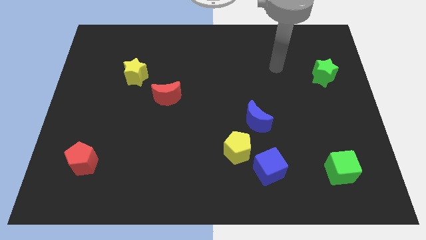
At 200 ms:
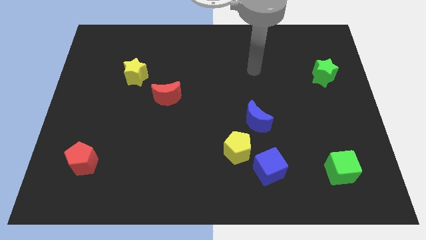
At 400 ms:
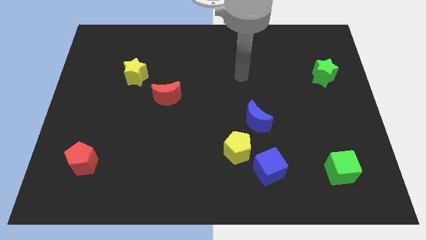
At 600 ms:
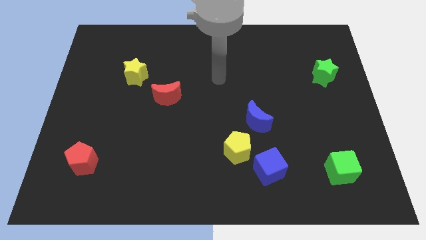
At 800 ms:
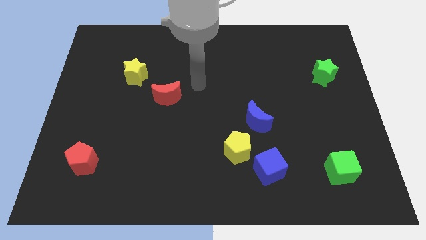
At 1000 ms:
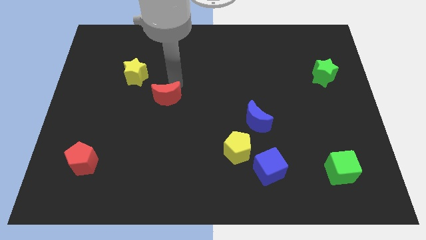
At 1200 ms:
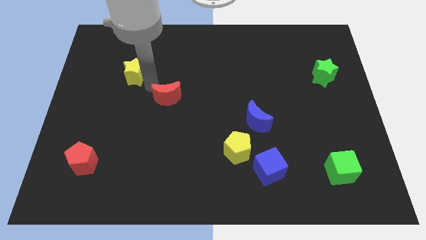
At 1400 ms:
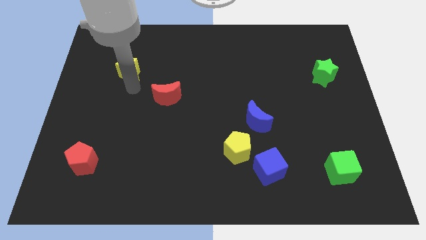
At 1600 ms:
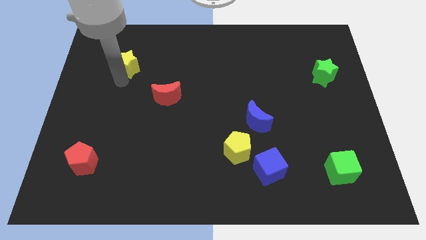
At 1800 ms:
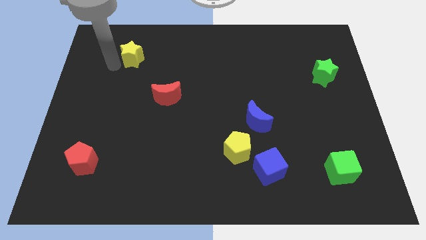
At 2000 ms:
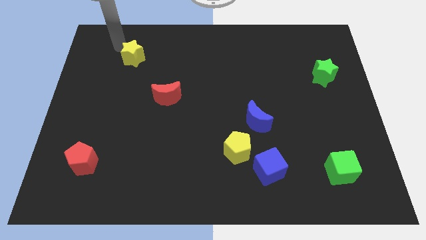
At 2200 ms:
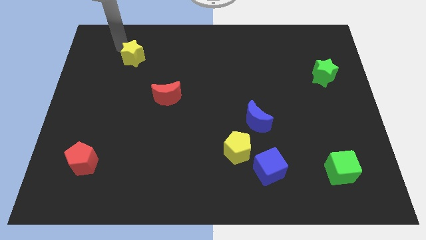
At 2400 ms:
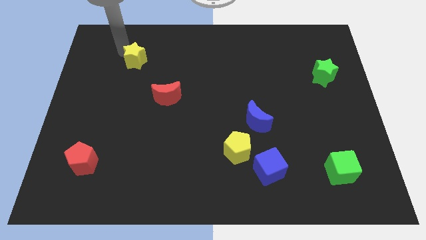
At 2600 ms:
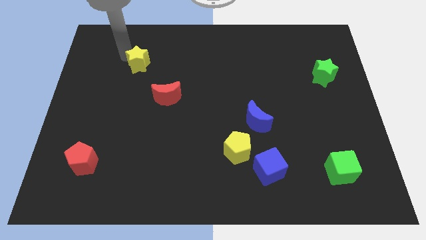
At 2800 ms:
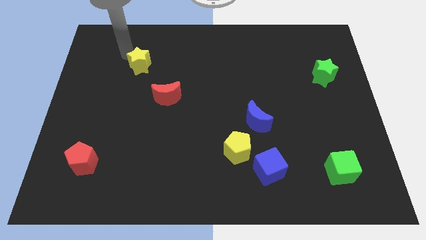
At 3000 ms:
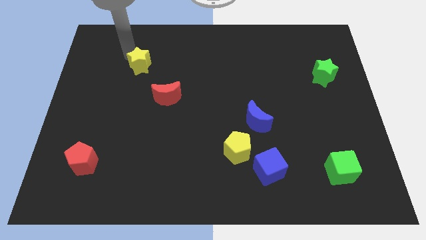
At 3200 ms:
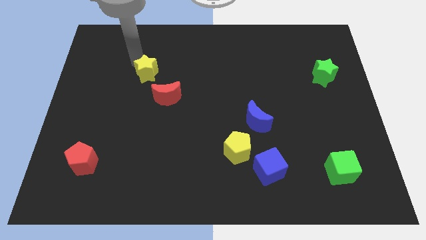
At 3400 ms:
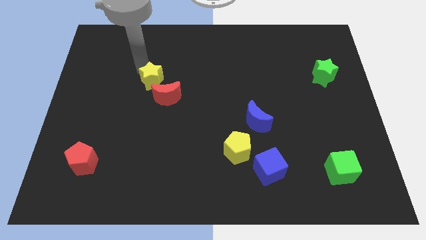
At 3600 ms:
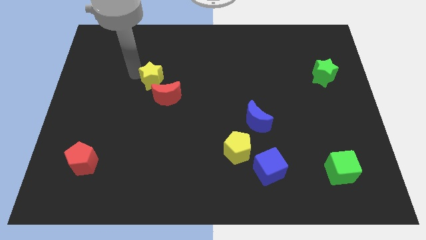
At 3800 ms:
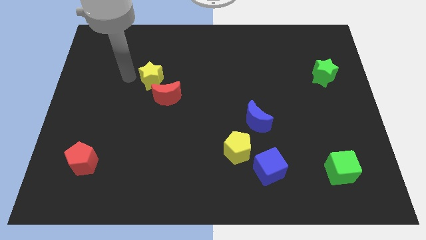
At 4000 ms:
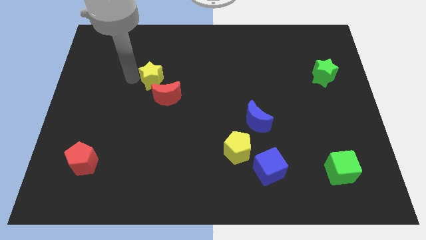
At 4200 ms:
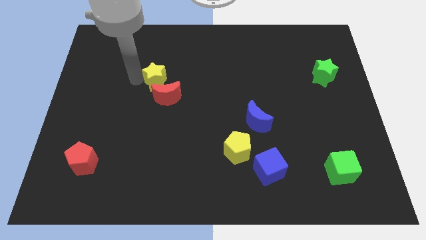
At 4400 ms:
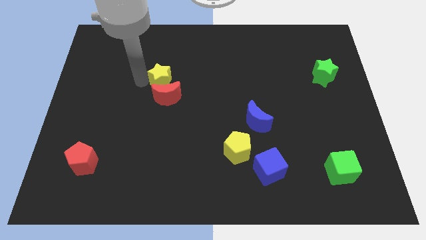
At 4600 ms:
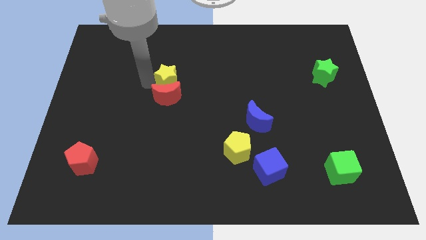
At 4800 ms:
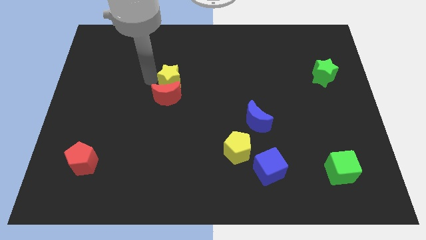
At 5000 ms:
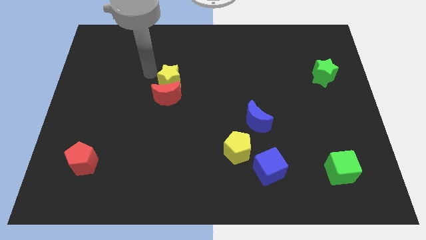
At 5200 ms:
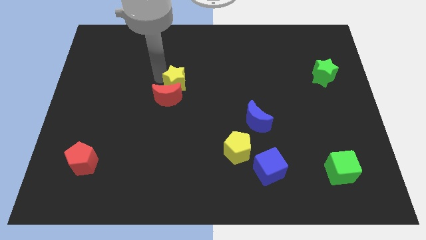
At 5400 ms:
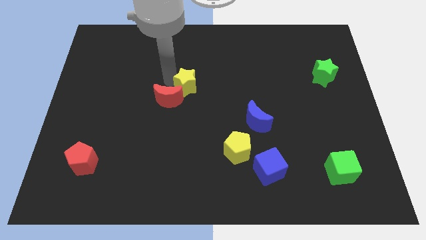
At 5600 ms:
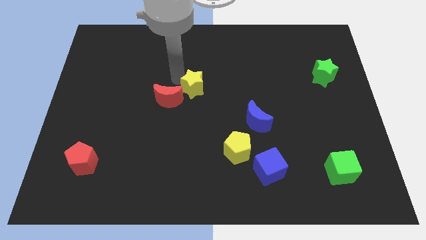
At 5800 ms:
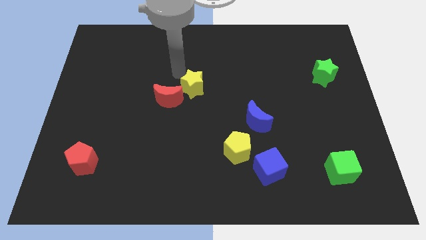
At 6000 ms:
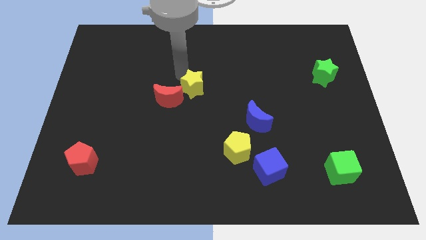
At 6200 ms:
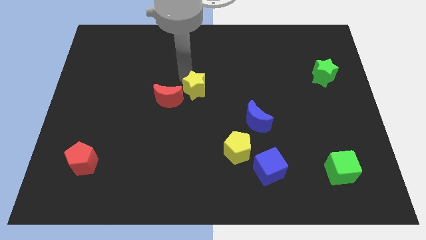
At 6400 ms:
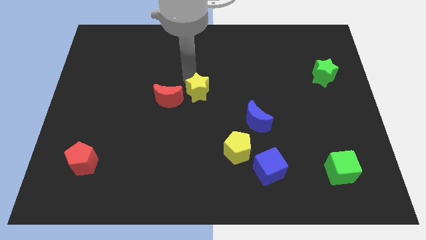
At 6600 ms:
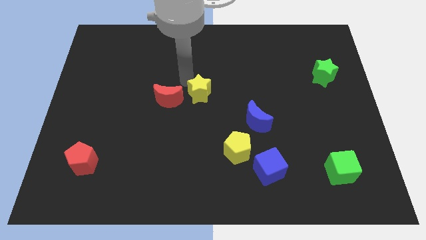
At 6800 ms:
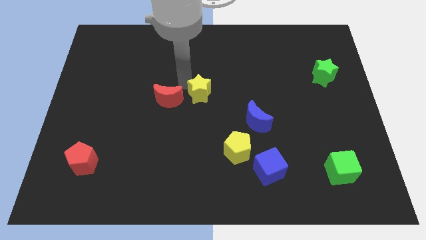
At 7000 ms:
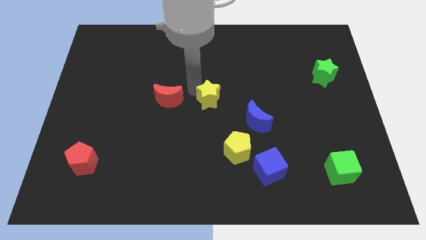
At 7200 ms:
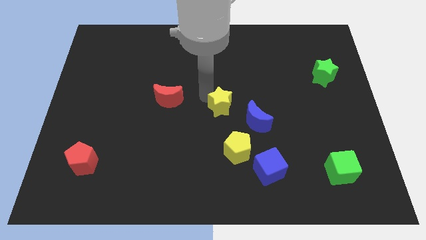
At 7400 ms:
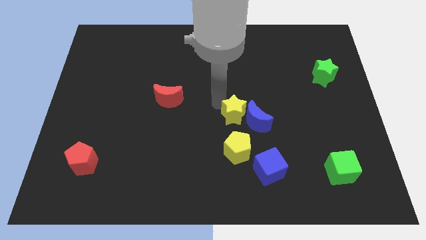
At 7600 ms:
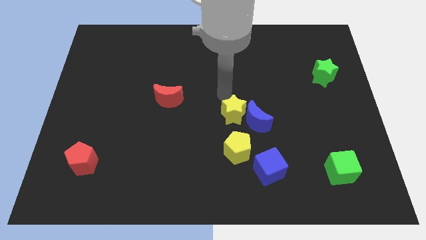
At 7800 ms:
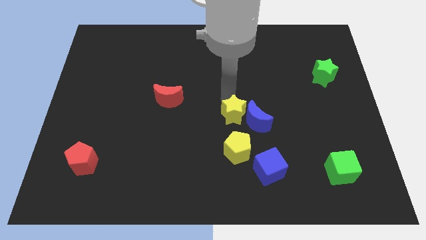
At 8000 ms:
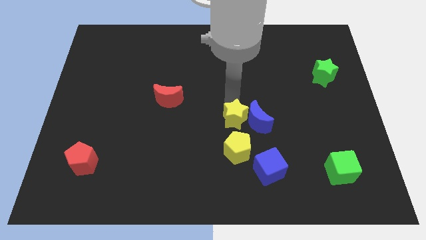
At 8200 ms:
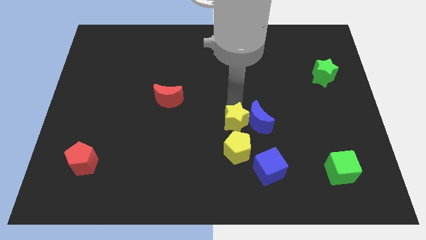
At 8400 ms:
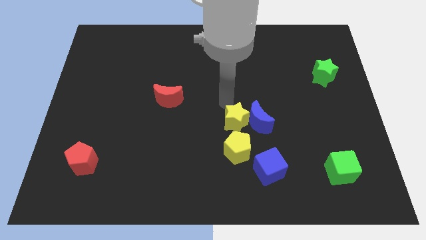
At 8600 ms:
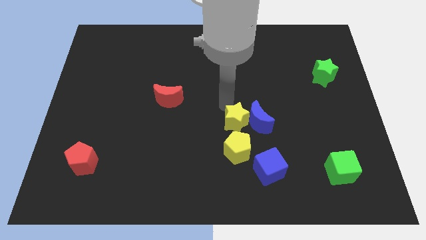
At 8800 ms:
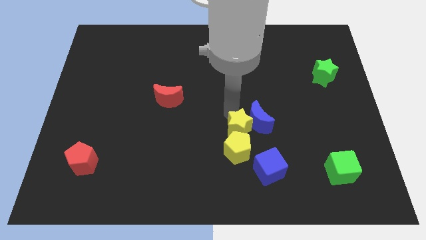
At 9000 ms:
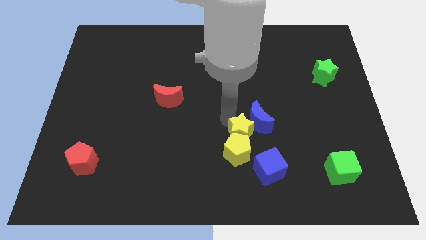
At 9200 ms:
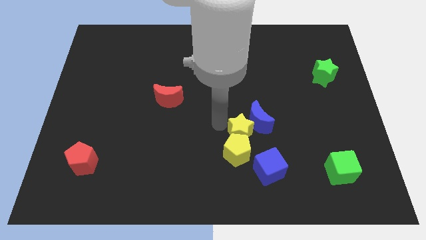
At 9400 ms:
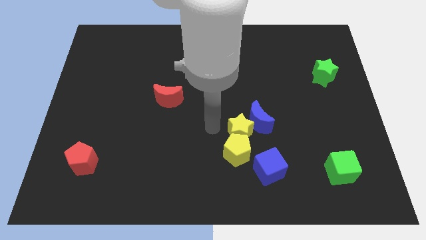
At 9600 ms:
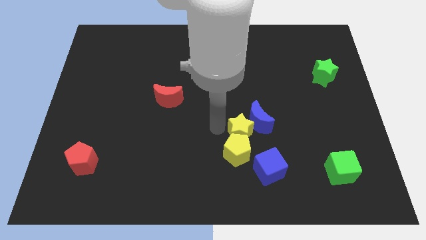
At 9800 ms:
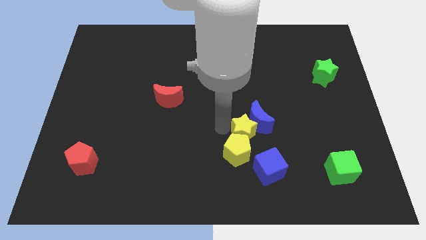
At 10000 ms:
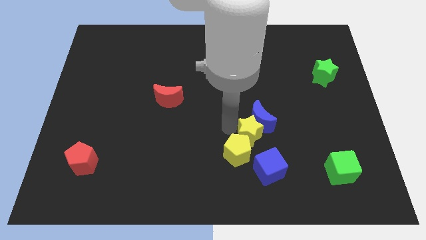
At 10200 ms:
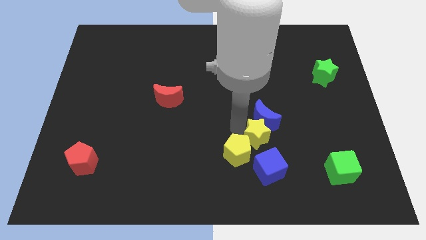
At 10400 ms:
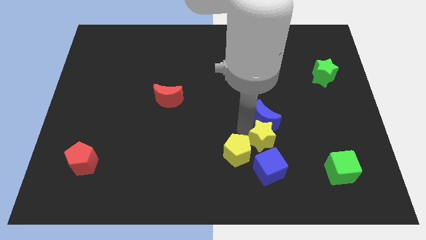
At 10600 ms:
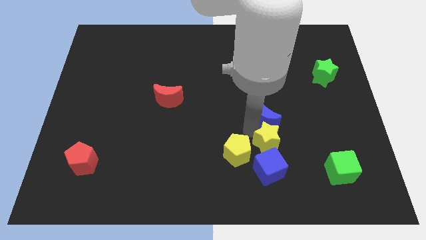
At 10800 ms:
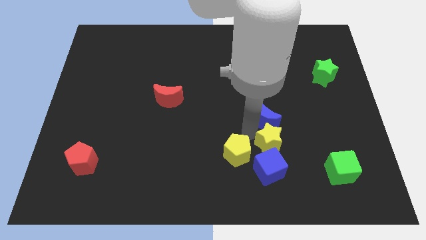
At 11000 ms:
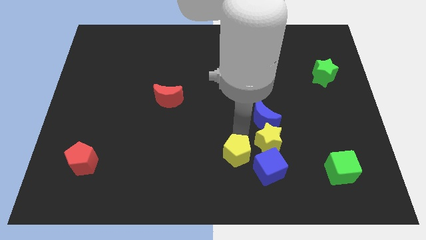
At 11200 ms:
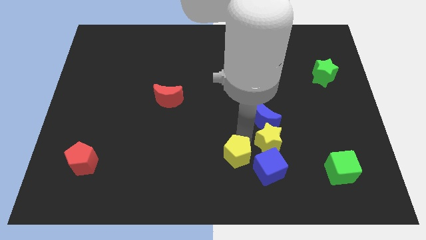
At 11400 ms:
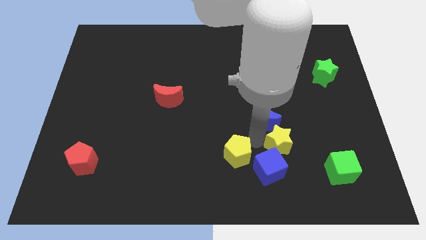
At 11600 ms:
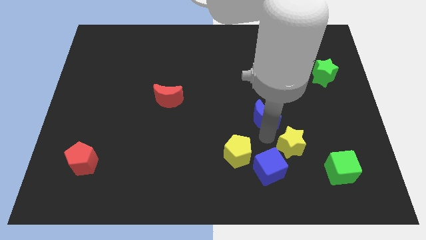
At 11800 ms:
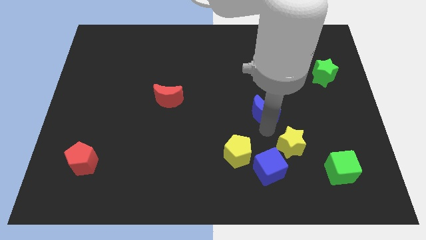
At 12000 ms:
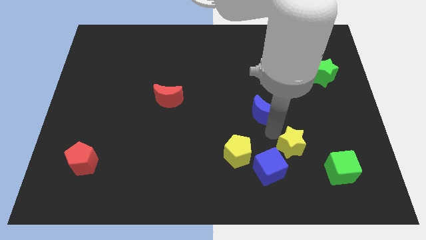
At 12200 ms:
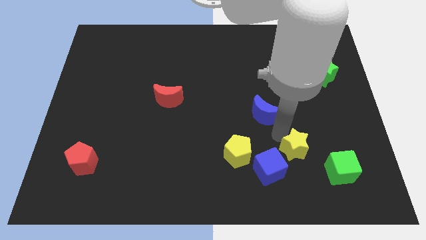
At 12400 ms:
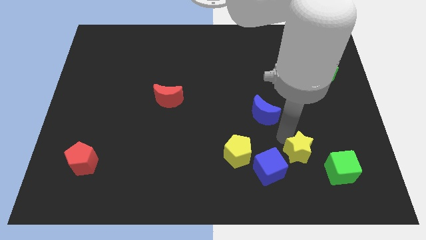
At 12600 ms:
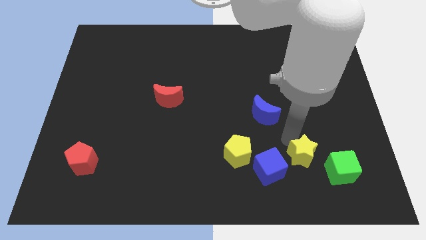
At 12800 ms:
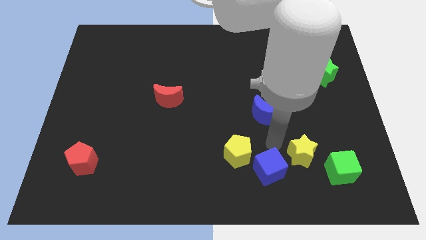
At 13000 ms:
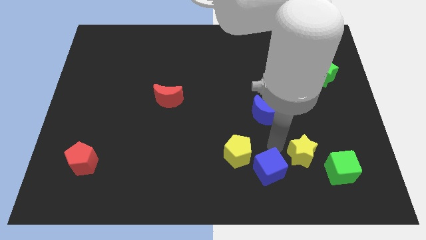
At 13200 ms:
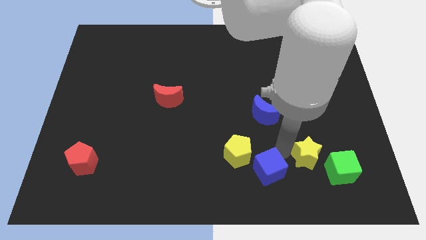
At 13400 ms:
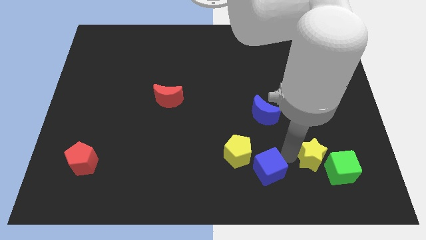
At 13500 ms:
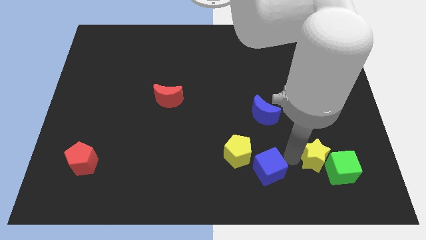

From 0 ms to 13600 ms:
push the yellow star to the green cube

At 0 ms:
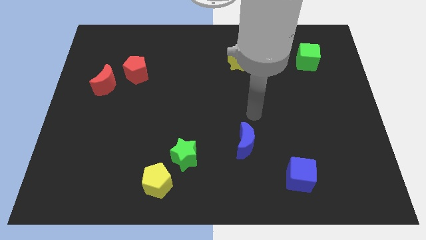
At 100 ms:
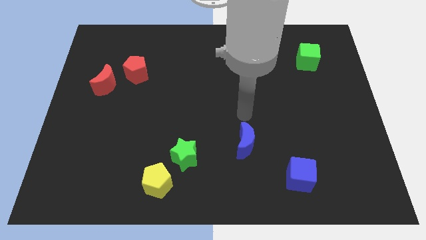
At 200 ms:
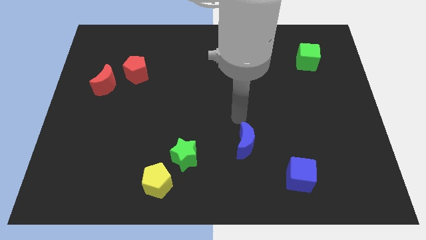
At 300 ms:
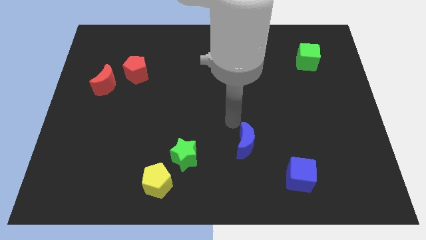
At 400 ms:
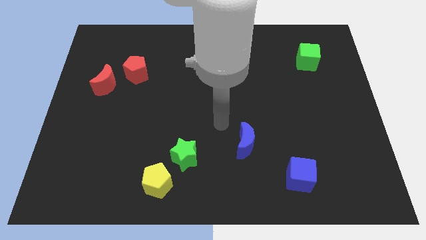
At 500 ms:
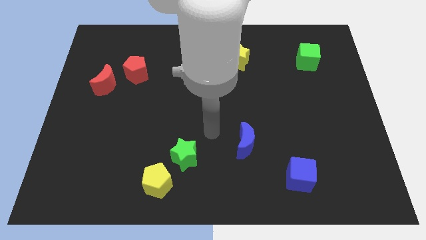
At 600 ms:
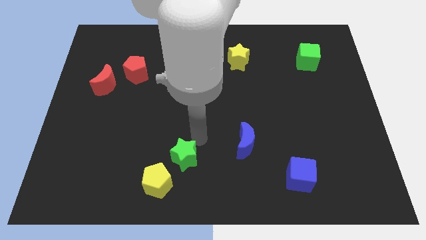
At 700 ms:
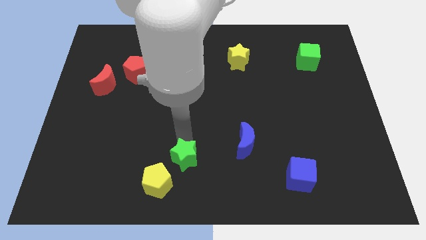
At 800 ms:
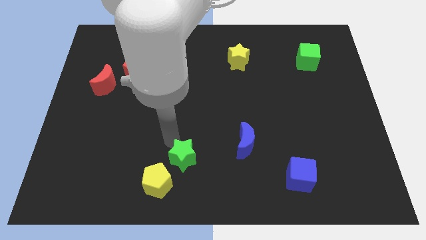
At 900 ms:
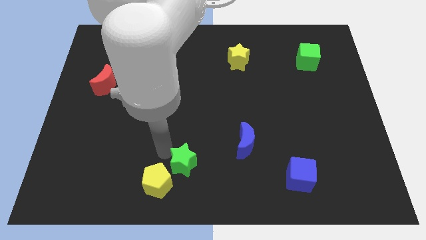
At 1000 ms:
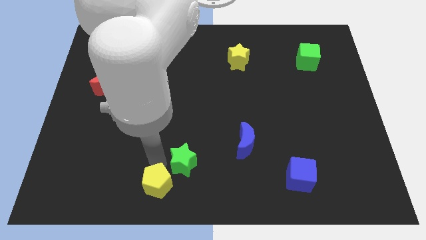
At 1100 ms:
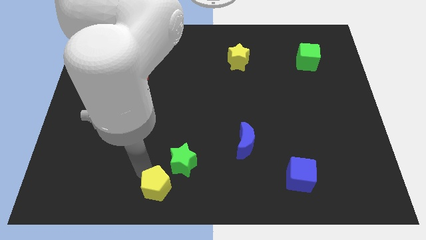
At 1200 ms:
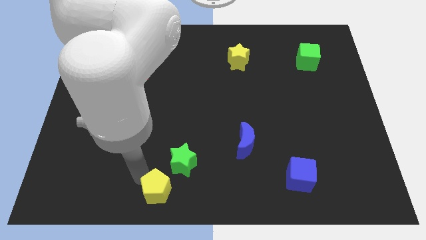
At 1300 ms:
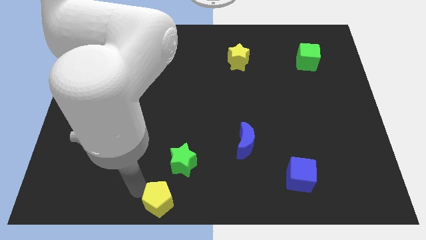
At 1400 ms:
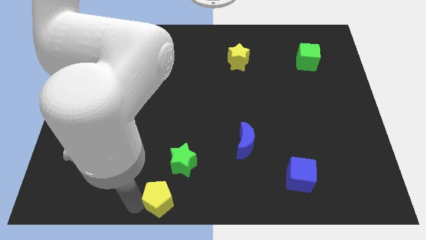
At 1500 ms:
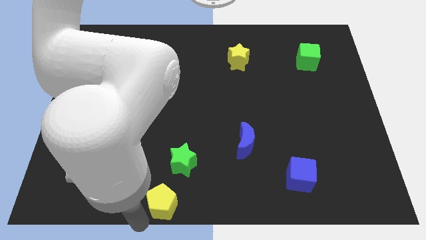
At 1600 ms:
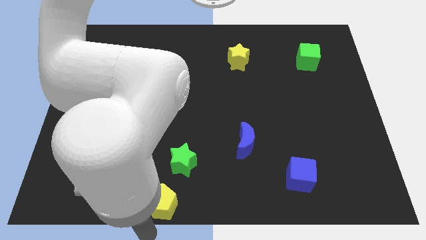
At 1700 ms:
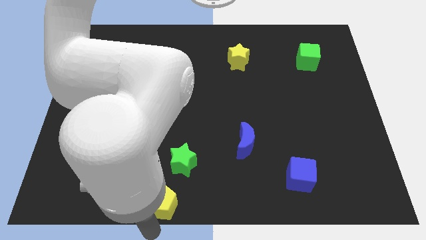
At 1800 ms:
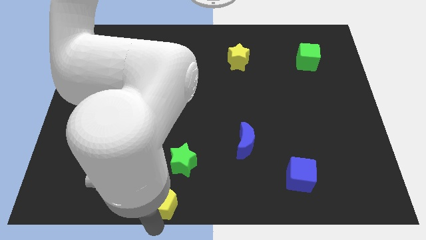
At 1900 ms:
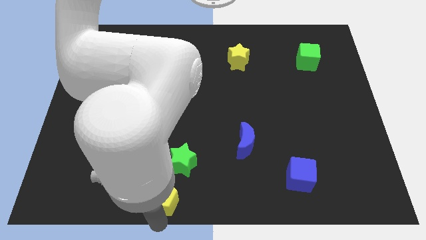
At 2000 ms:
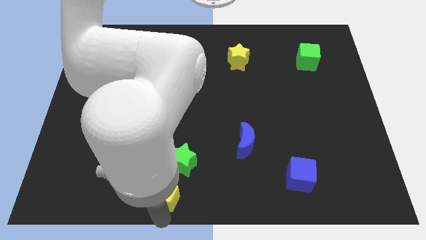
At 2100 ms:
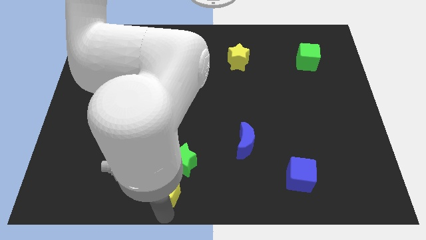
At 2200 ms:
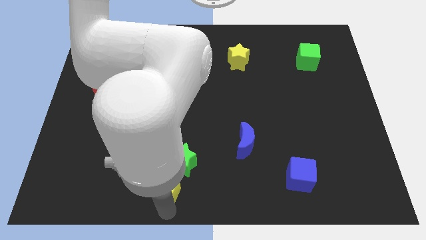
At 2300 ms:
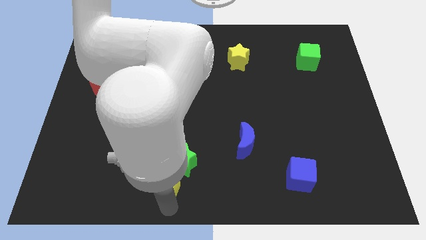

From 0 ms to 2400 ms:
move the yellow pentagon next to the green star
